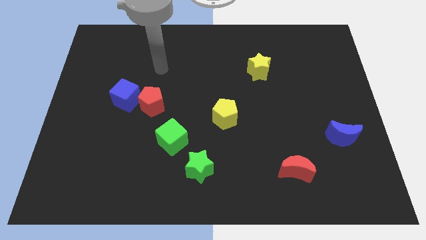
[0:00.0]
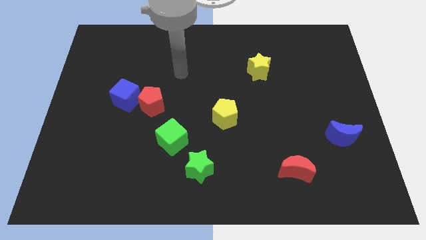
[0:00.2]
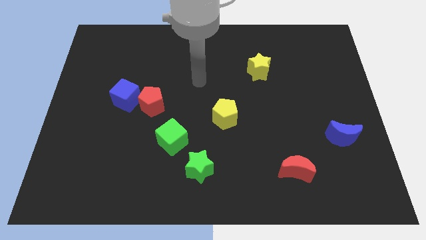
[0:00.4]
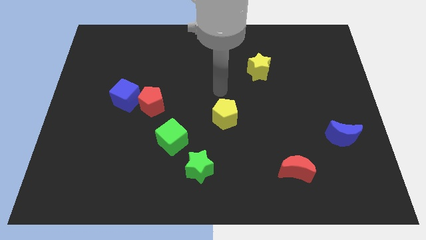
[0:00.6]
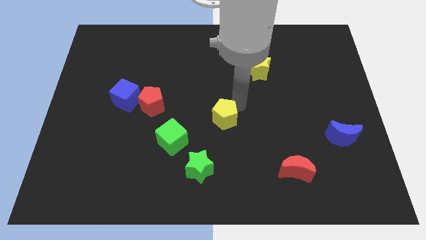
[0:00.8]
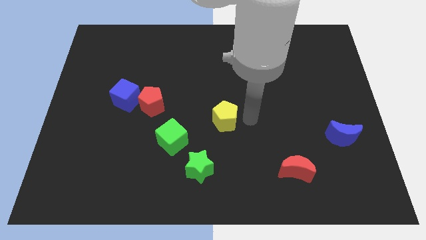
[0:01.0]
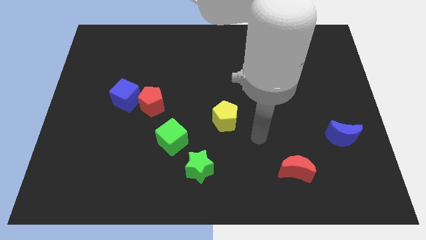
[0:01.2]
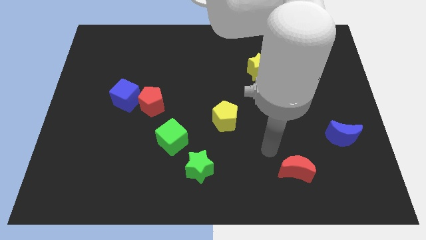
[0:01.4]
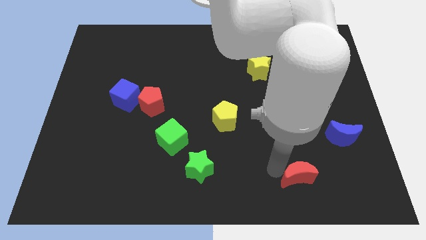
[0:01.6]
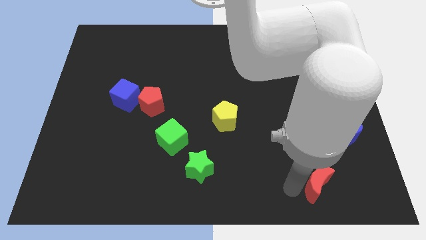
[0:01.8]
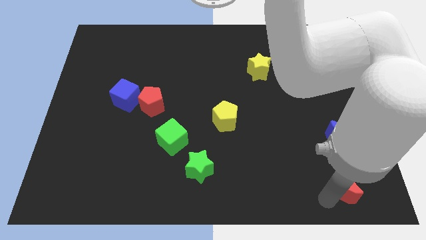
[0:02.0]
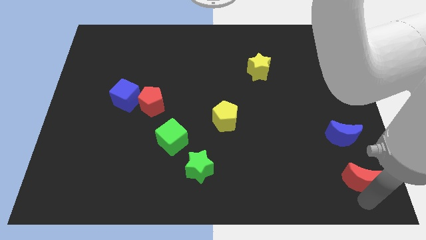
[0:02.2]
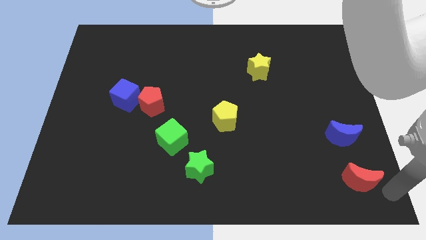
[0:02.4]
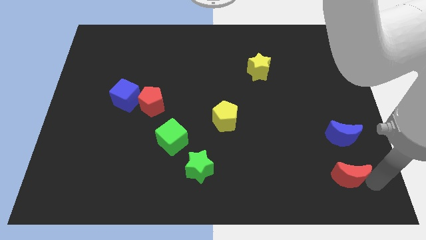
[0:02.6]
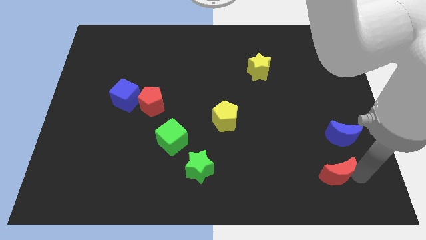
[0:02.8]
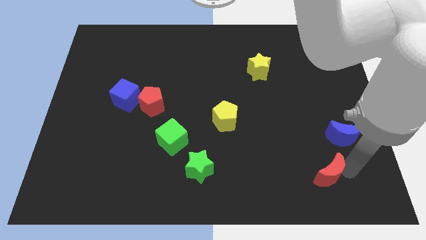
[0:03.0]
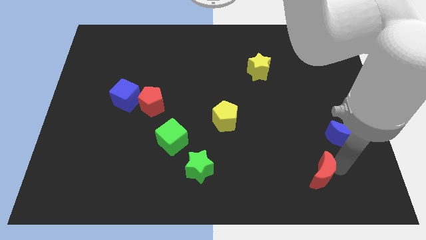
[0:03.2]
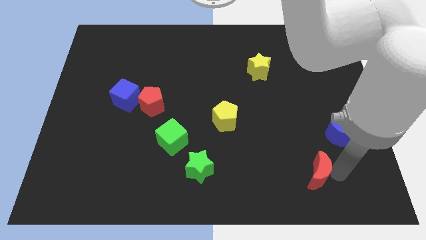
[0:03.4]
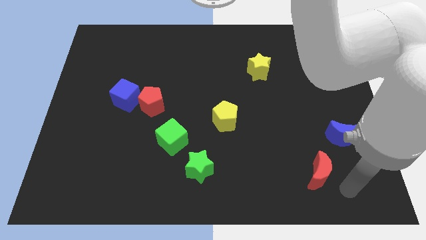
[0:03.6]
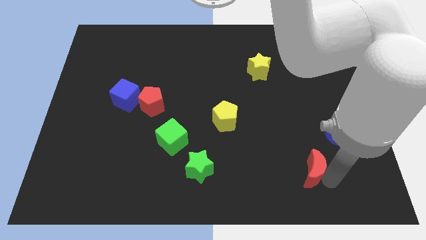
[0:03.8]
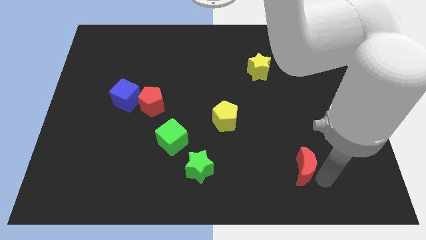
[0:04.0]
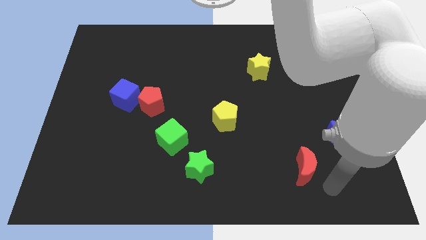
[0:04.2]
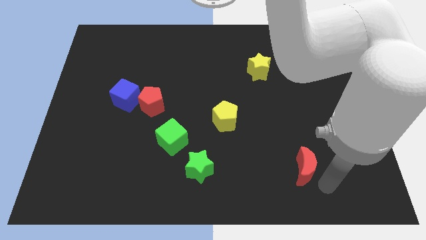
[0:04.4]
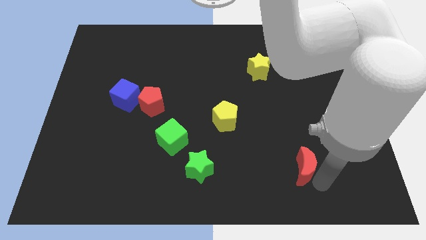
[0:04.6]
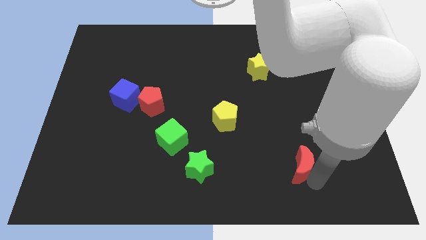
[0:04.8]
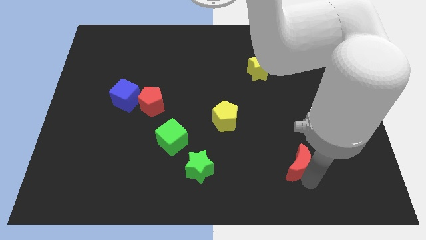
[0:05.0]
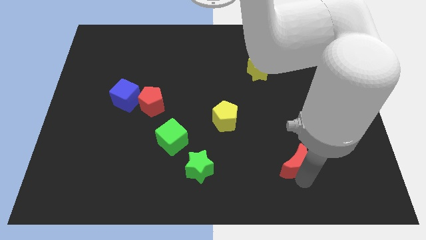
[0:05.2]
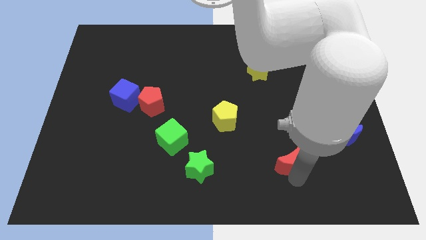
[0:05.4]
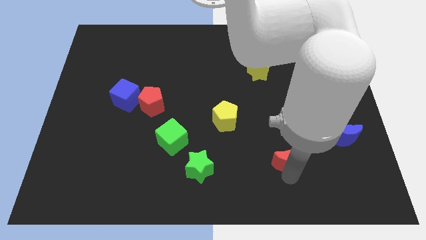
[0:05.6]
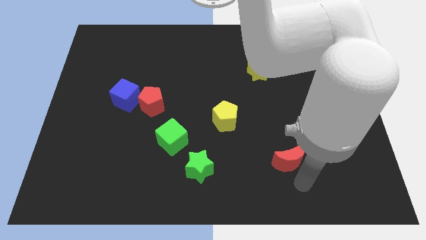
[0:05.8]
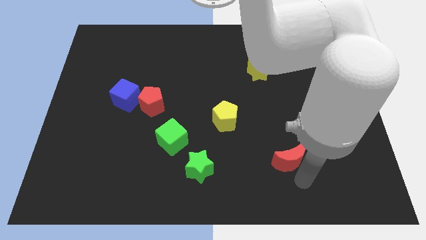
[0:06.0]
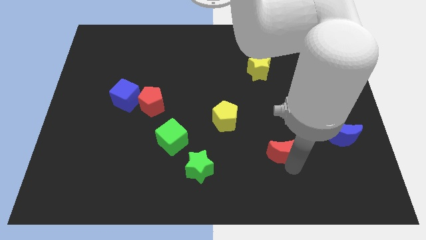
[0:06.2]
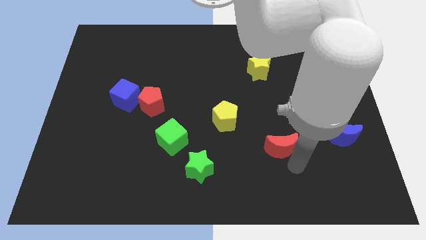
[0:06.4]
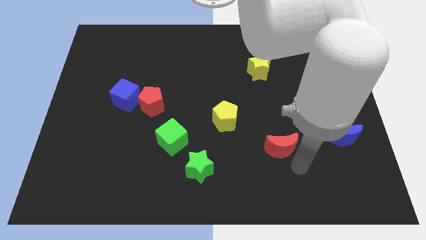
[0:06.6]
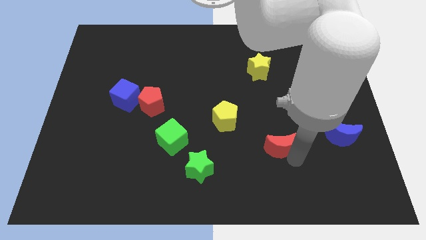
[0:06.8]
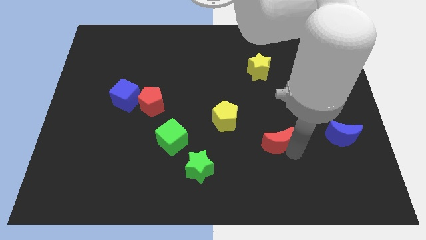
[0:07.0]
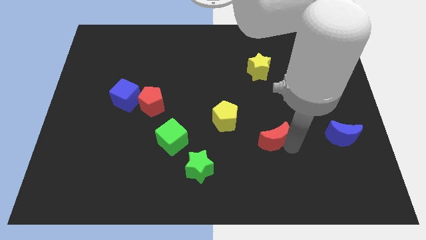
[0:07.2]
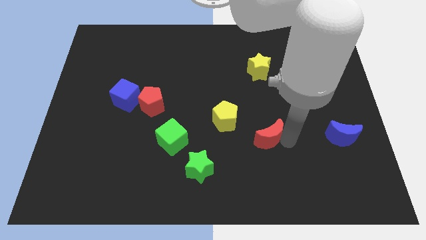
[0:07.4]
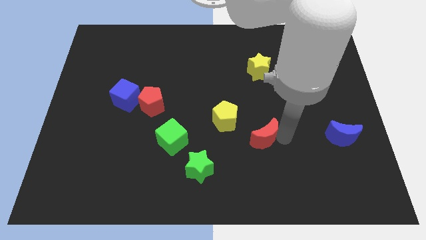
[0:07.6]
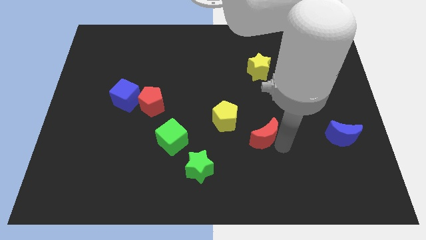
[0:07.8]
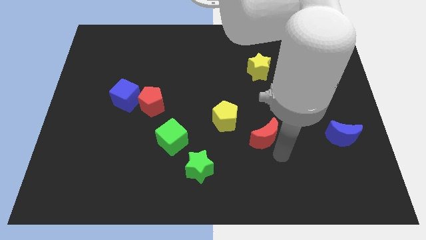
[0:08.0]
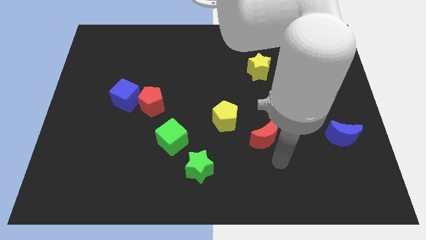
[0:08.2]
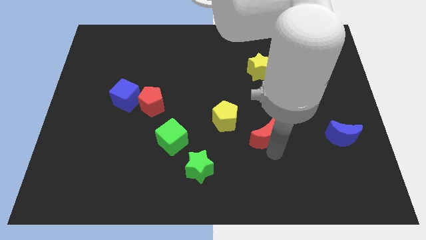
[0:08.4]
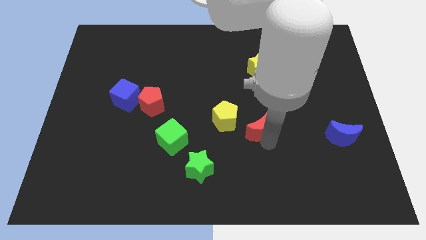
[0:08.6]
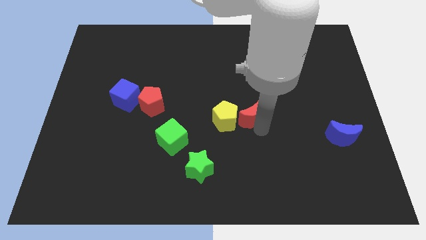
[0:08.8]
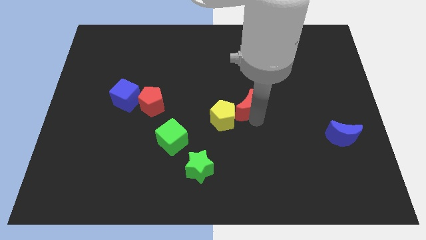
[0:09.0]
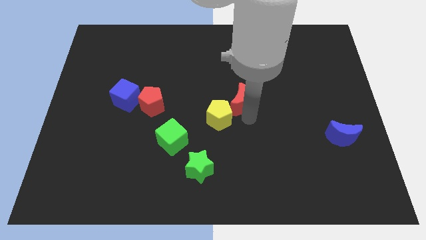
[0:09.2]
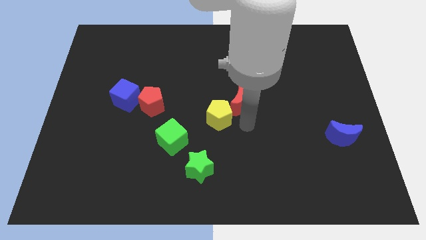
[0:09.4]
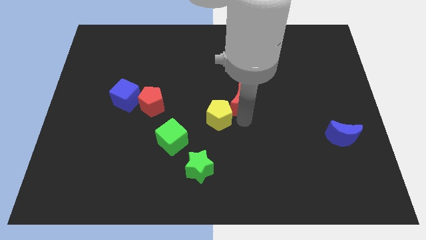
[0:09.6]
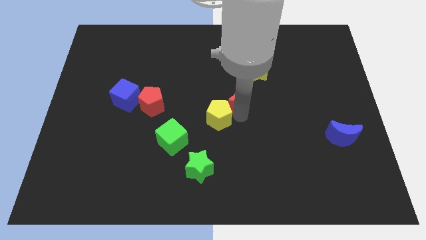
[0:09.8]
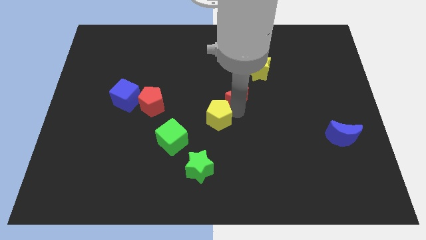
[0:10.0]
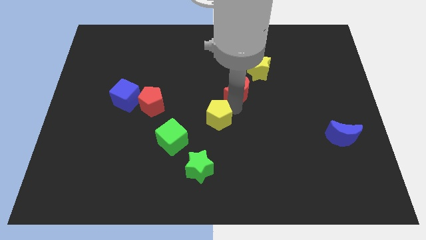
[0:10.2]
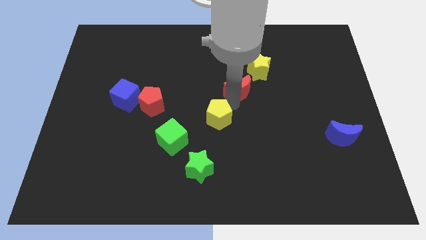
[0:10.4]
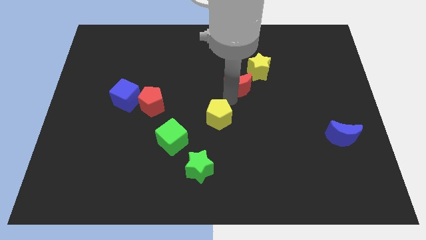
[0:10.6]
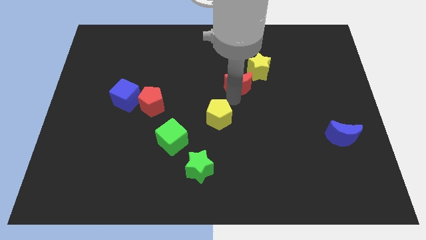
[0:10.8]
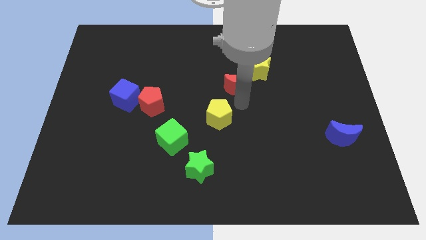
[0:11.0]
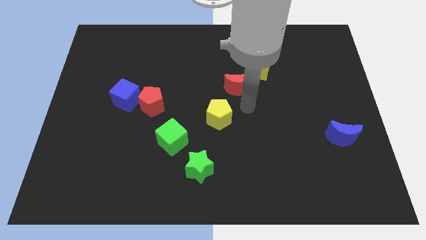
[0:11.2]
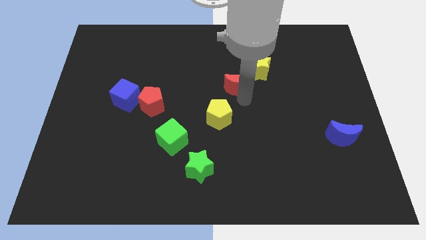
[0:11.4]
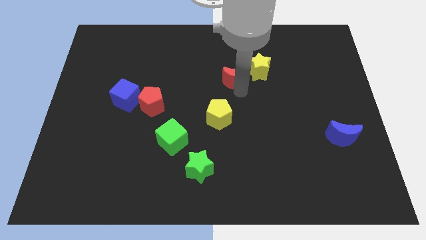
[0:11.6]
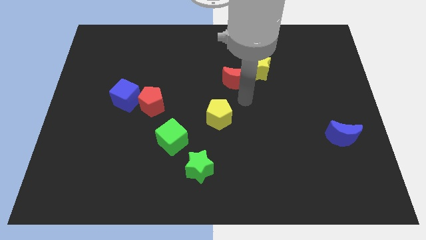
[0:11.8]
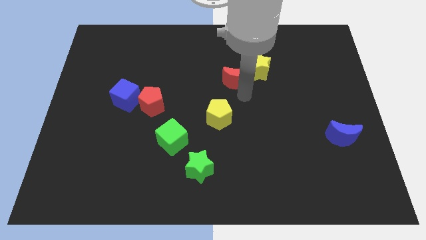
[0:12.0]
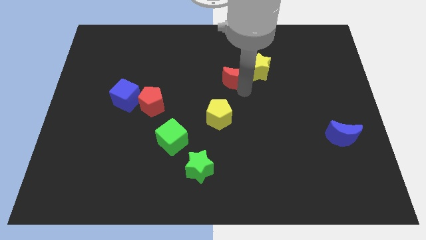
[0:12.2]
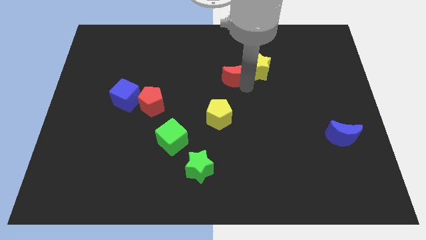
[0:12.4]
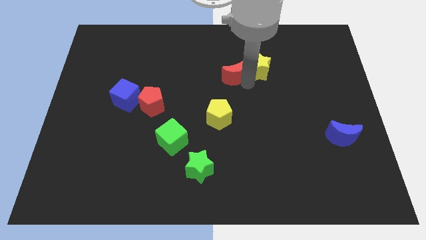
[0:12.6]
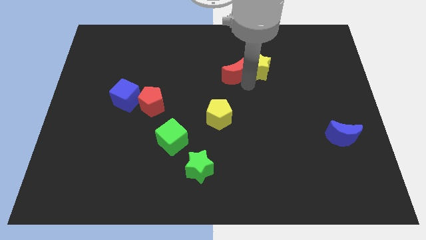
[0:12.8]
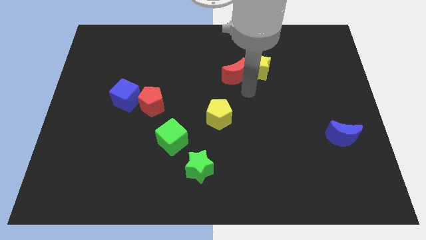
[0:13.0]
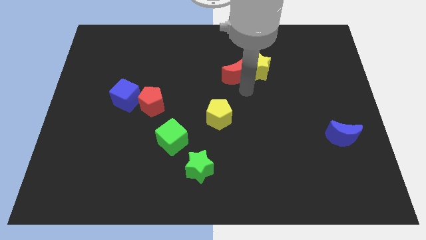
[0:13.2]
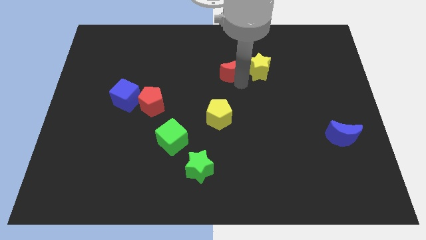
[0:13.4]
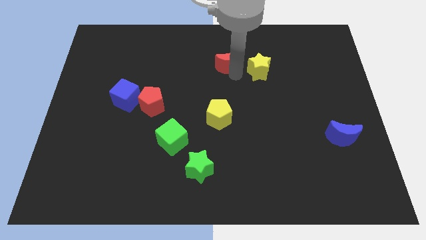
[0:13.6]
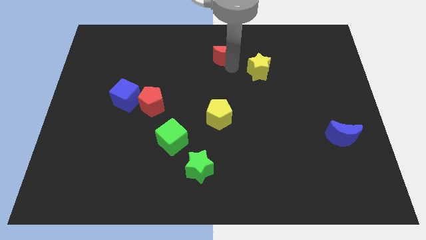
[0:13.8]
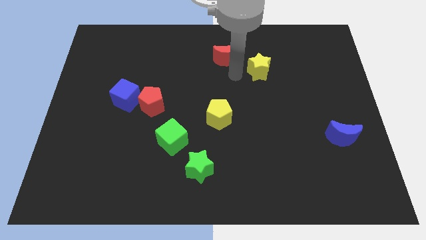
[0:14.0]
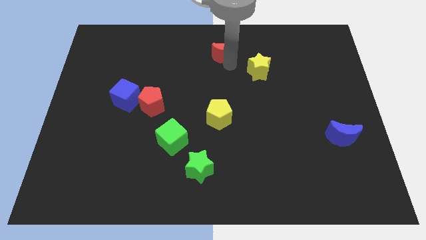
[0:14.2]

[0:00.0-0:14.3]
push the red moon to the top

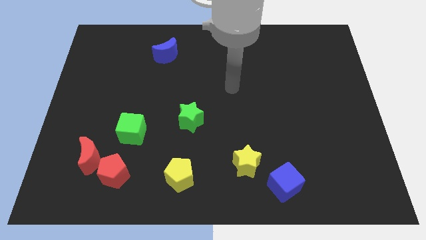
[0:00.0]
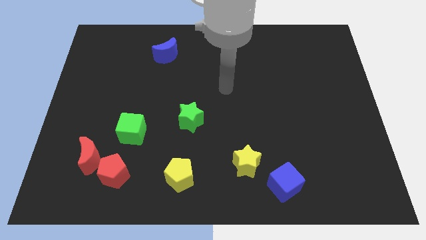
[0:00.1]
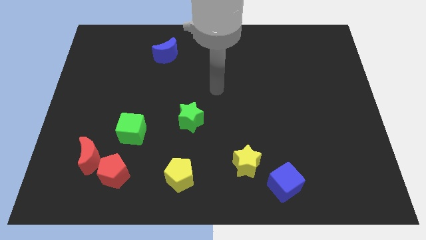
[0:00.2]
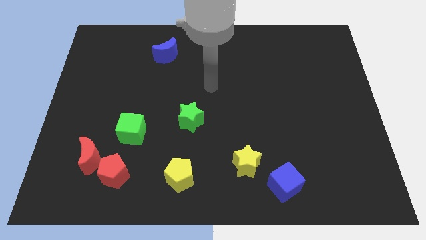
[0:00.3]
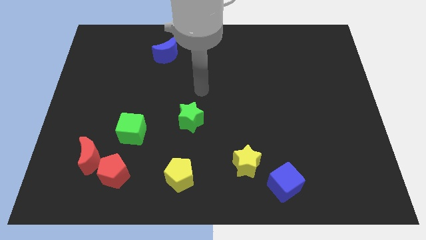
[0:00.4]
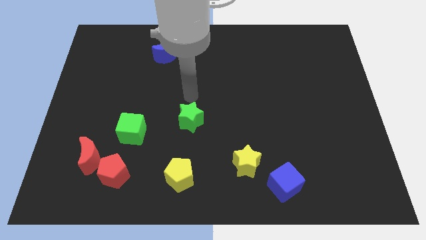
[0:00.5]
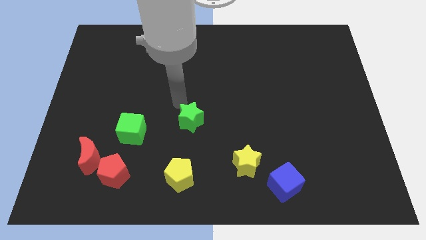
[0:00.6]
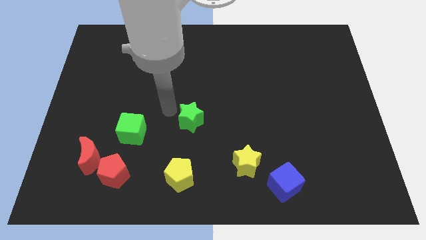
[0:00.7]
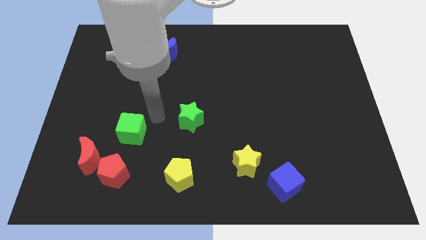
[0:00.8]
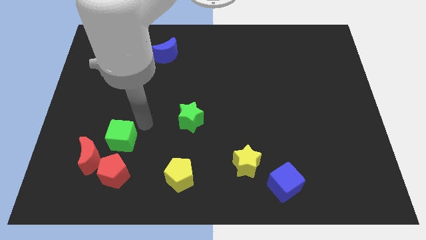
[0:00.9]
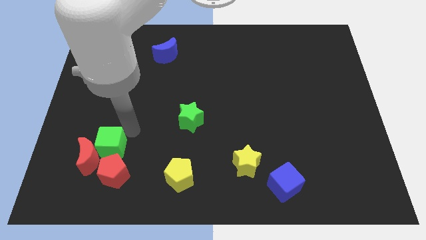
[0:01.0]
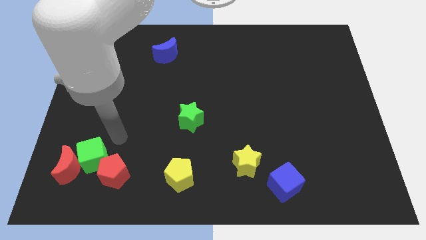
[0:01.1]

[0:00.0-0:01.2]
push the red moon to the lower left corner
